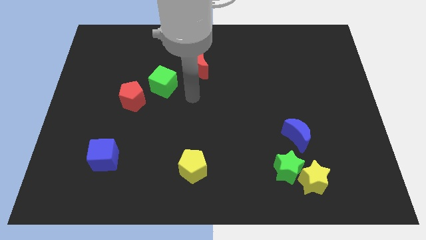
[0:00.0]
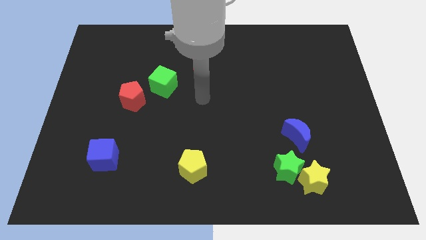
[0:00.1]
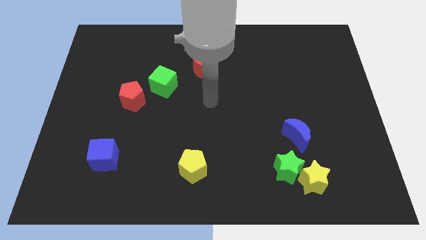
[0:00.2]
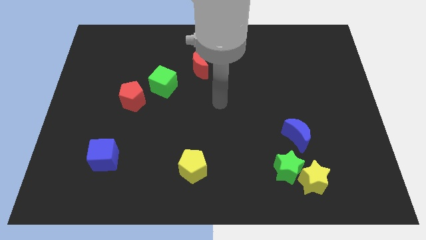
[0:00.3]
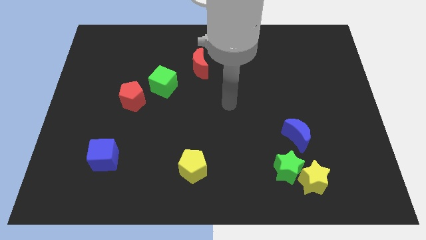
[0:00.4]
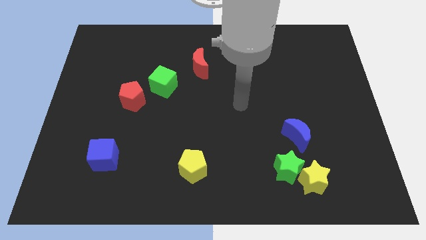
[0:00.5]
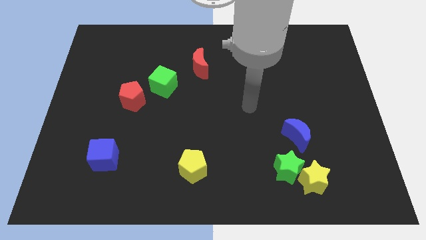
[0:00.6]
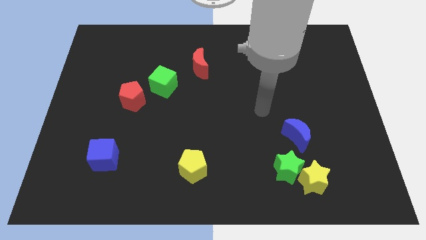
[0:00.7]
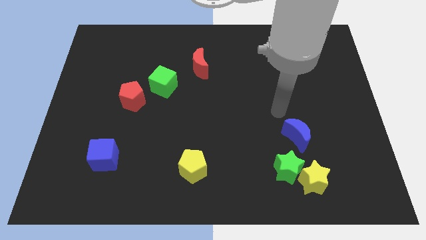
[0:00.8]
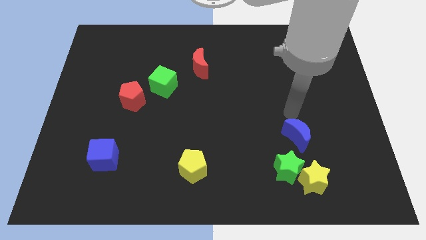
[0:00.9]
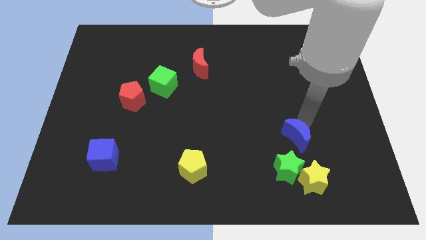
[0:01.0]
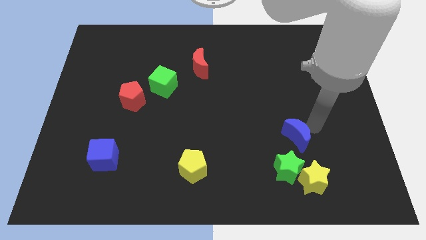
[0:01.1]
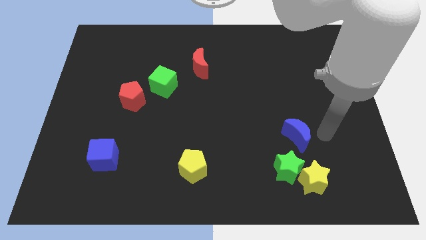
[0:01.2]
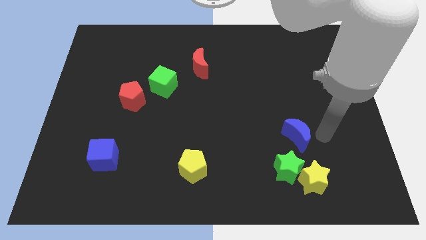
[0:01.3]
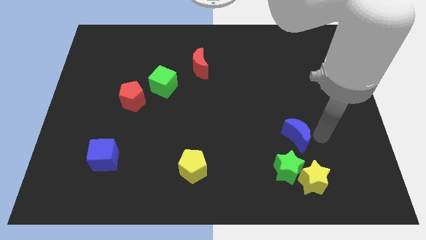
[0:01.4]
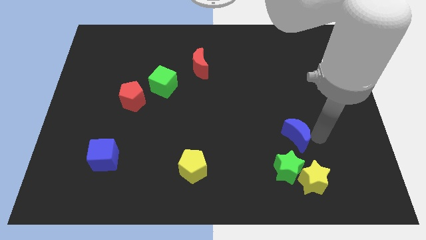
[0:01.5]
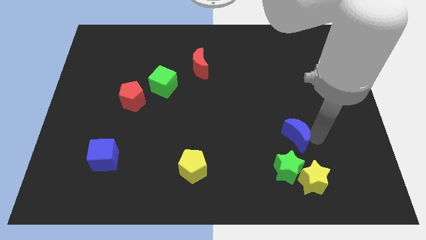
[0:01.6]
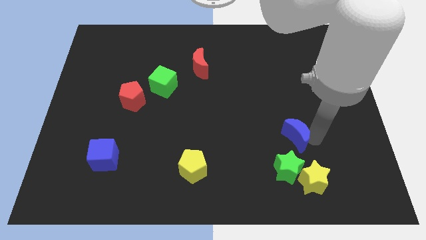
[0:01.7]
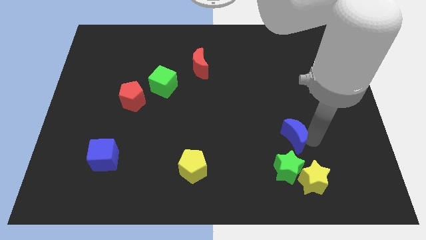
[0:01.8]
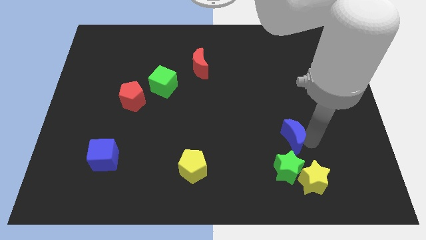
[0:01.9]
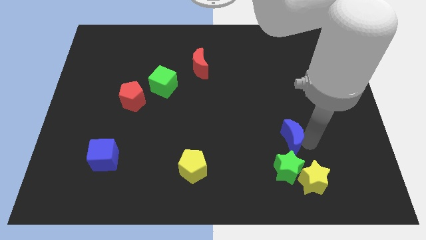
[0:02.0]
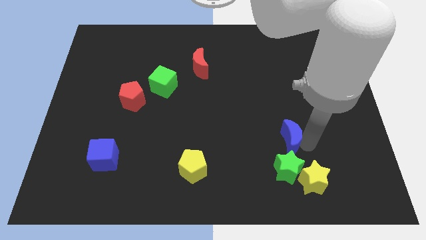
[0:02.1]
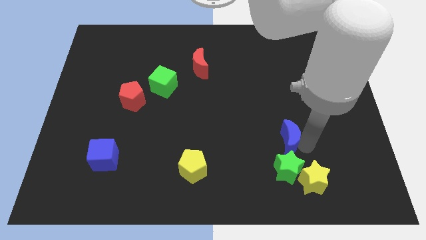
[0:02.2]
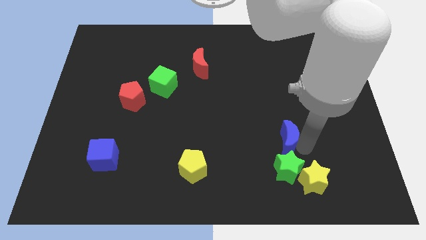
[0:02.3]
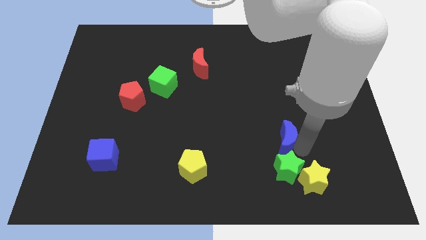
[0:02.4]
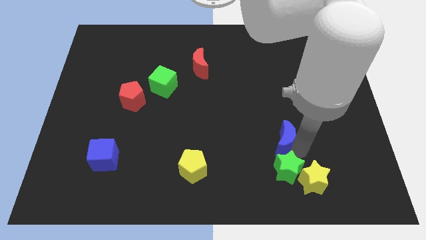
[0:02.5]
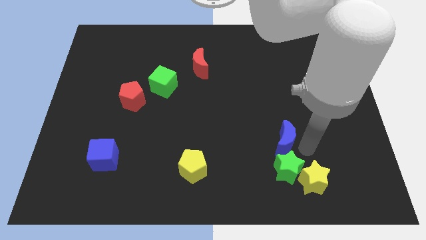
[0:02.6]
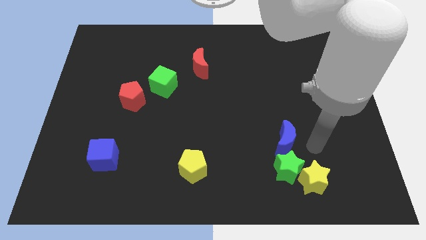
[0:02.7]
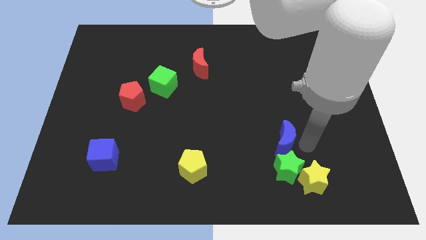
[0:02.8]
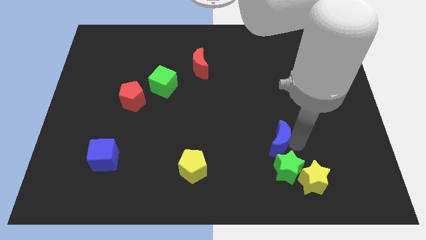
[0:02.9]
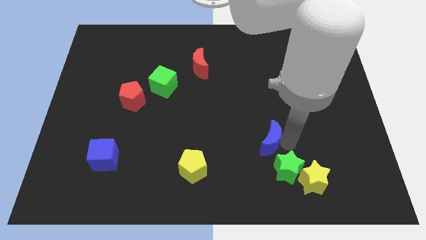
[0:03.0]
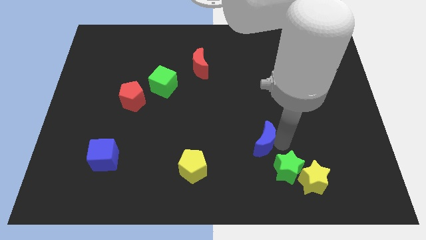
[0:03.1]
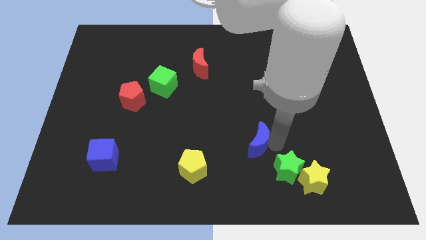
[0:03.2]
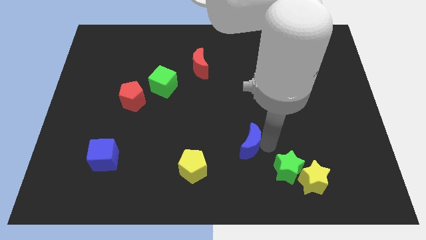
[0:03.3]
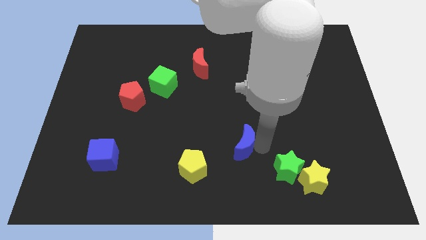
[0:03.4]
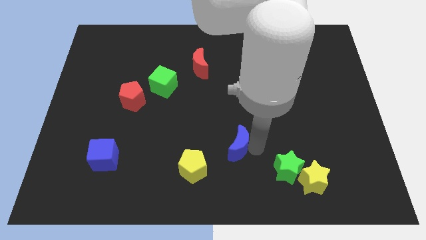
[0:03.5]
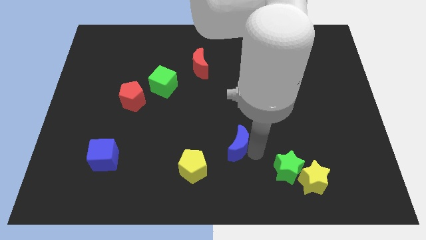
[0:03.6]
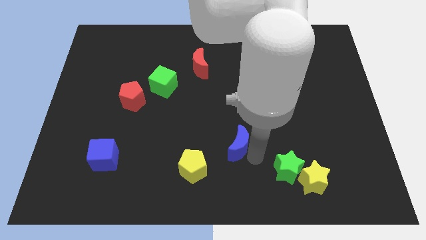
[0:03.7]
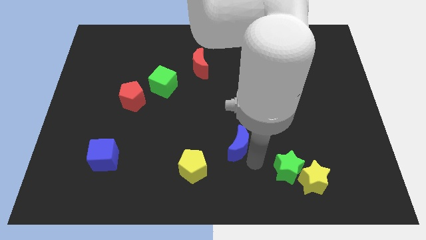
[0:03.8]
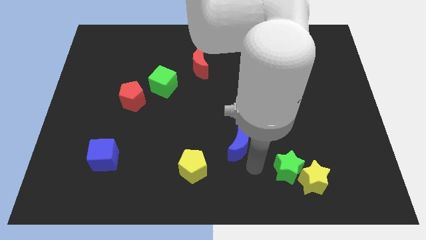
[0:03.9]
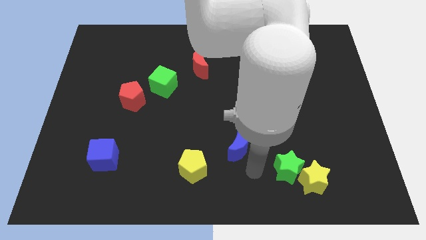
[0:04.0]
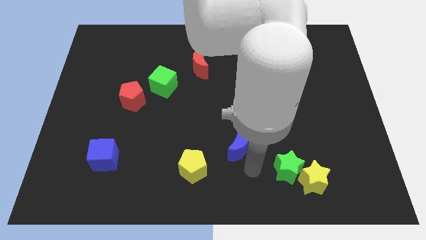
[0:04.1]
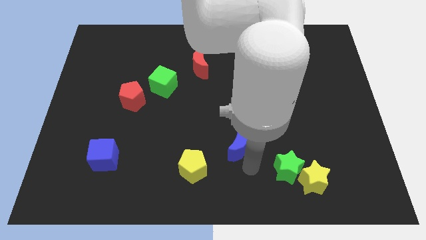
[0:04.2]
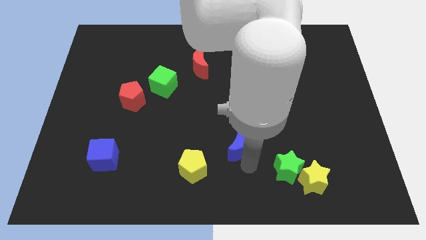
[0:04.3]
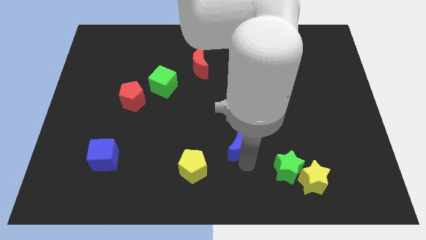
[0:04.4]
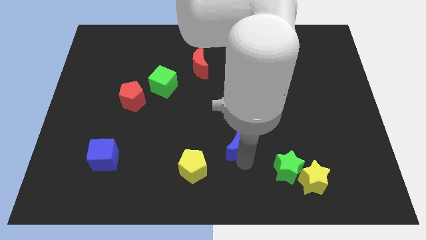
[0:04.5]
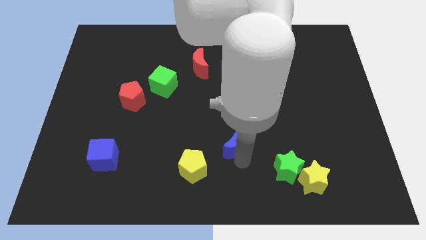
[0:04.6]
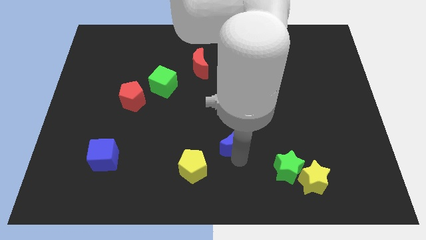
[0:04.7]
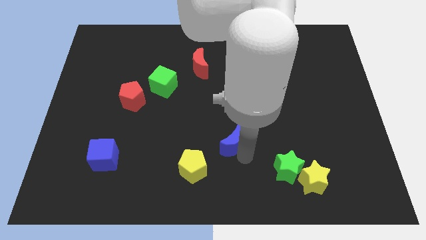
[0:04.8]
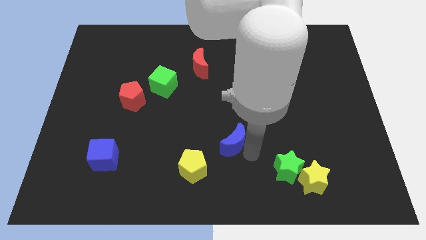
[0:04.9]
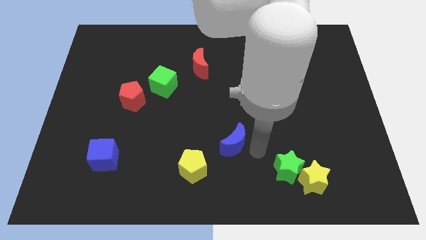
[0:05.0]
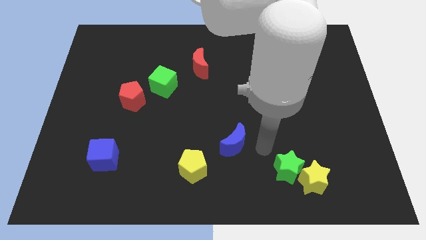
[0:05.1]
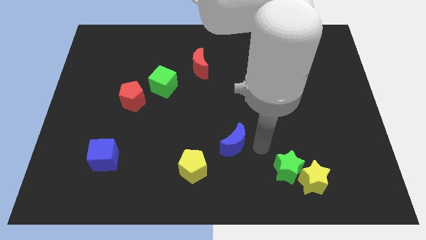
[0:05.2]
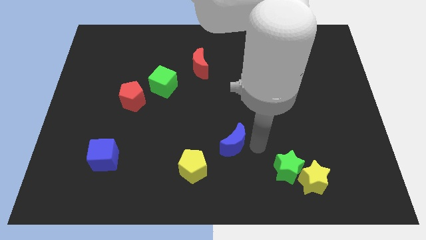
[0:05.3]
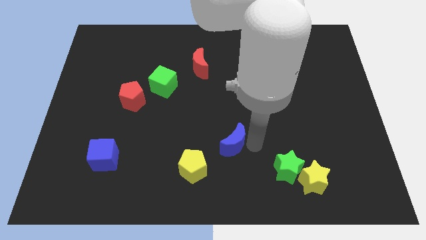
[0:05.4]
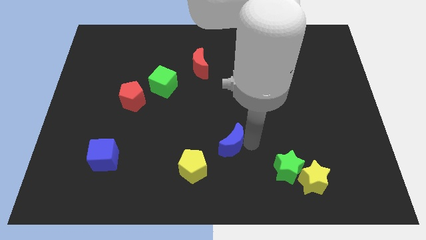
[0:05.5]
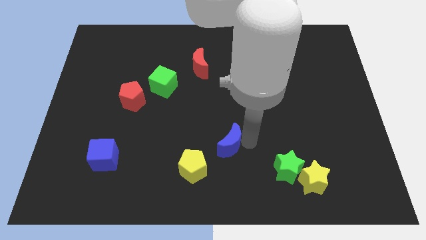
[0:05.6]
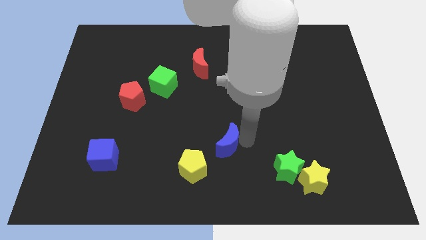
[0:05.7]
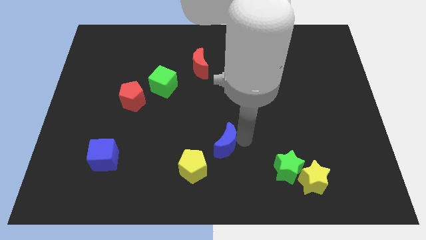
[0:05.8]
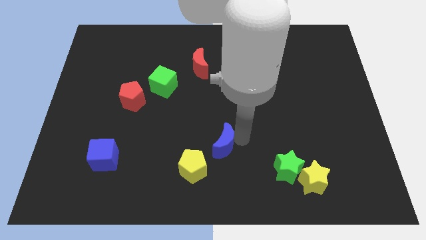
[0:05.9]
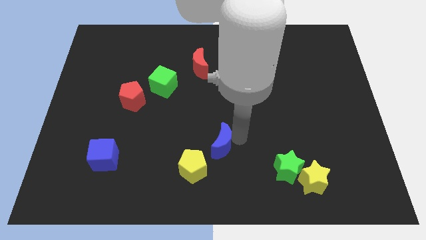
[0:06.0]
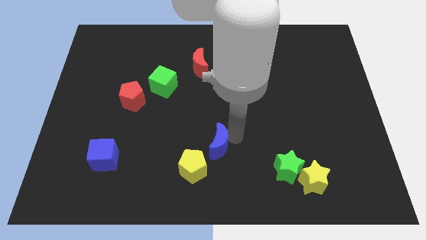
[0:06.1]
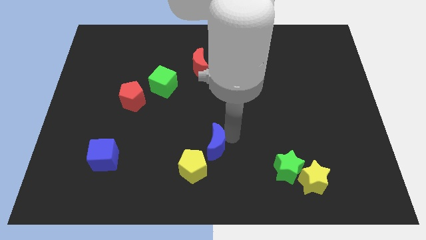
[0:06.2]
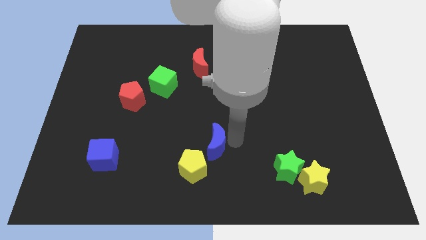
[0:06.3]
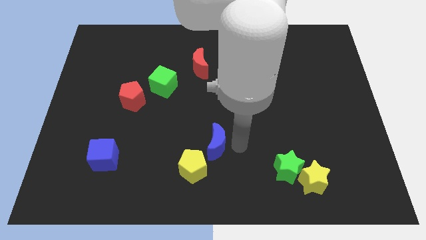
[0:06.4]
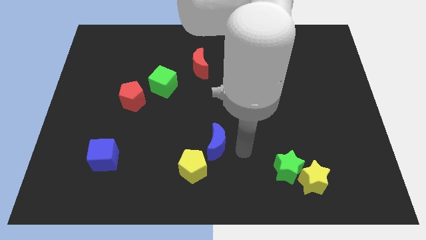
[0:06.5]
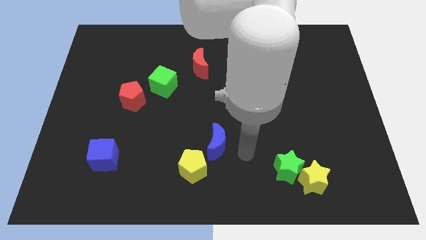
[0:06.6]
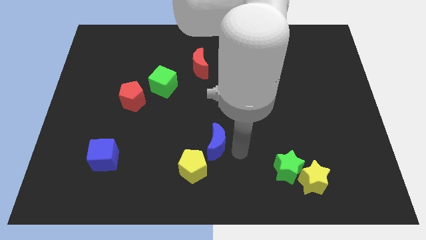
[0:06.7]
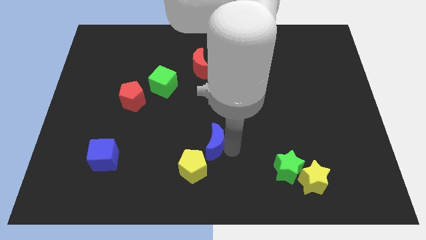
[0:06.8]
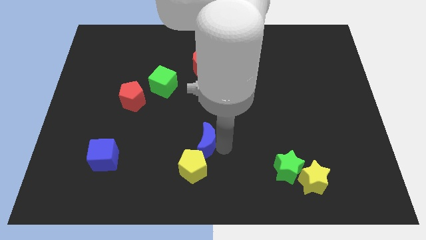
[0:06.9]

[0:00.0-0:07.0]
move the blue moon to the left

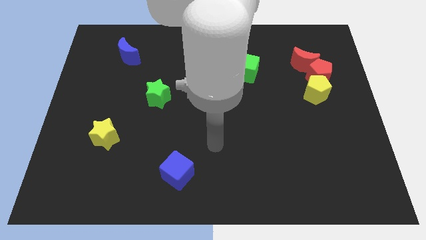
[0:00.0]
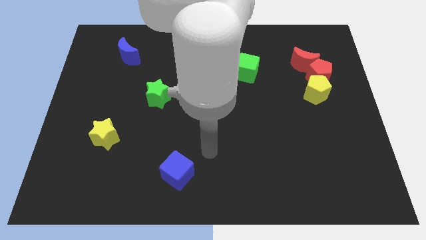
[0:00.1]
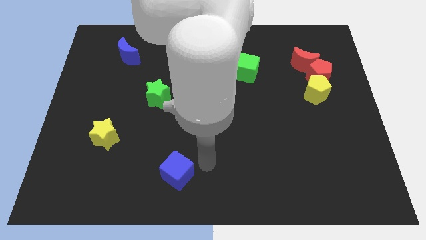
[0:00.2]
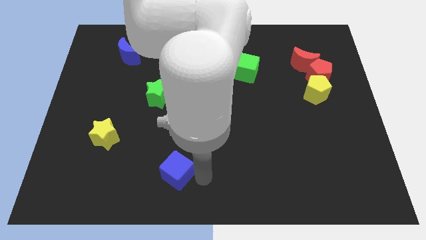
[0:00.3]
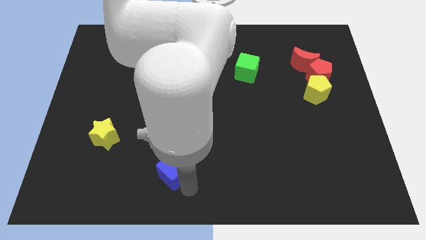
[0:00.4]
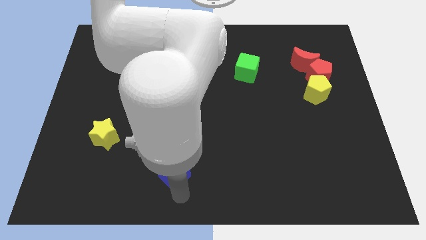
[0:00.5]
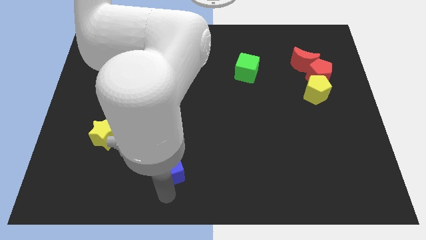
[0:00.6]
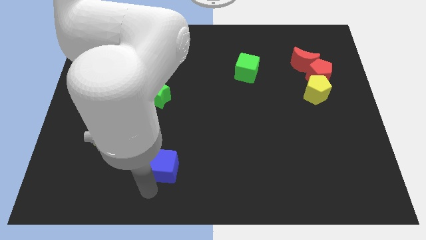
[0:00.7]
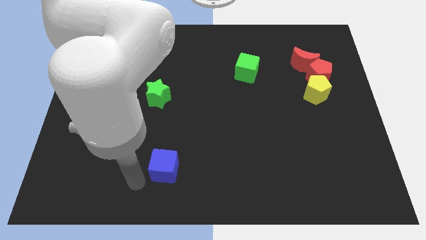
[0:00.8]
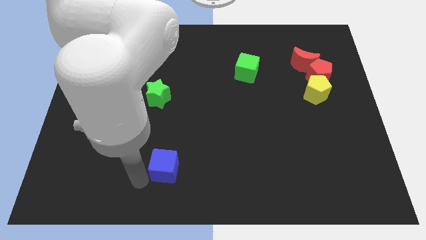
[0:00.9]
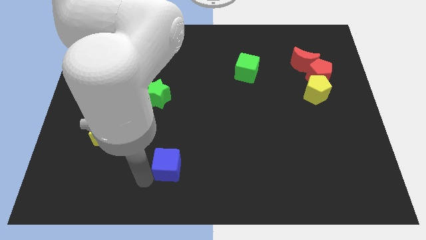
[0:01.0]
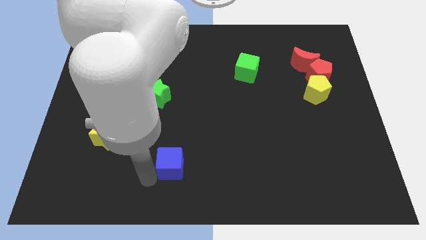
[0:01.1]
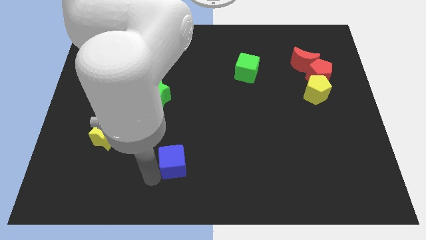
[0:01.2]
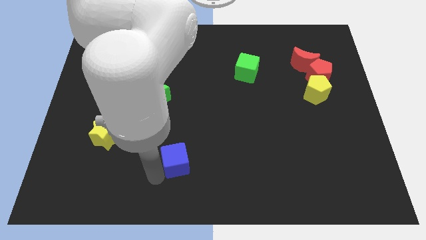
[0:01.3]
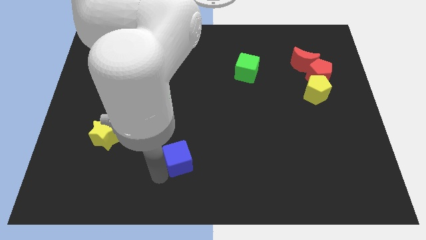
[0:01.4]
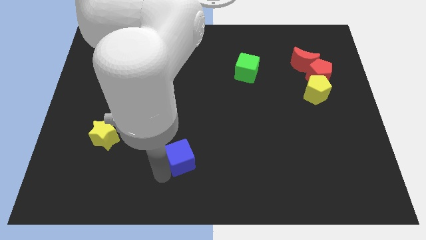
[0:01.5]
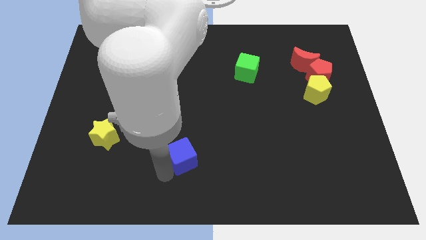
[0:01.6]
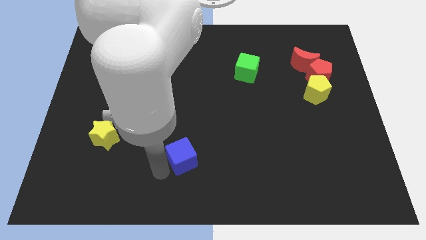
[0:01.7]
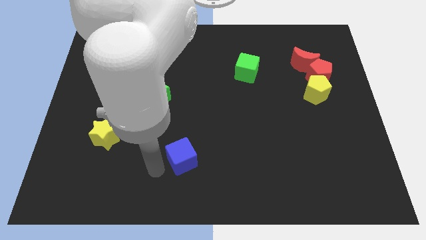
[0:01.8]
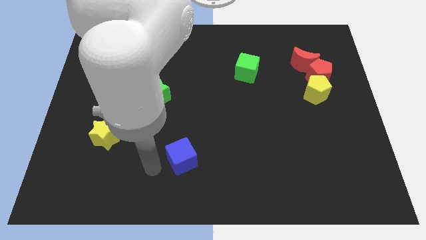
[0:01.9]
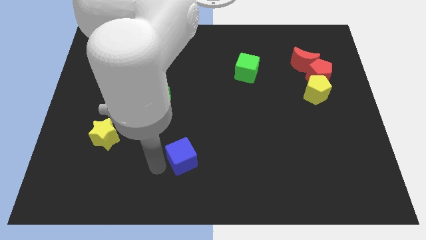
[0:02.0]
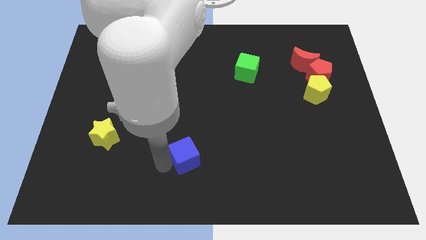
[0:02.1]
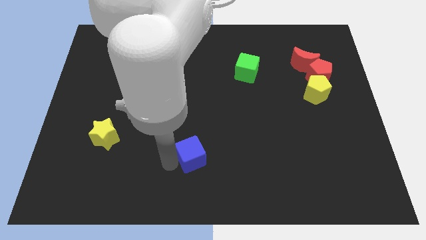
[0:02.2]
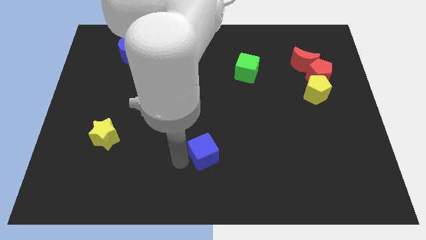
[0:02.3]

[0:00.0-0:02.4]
slide the blue cube upwards and right a little
